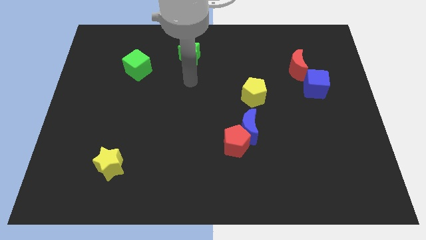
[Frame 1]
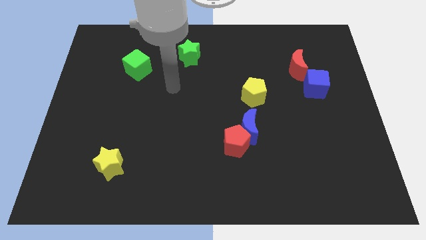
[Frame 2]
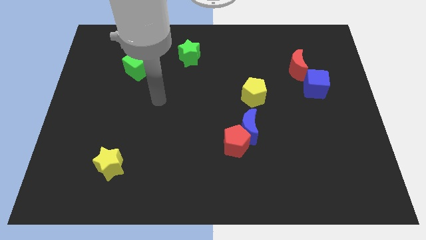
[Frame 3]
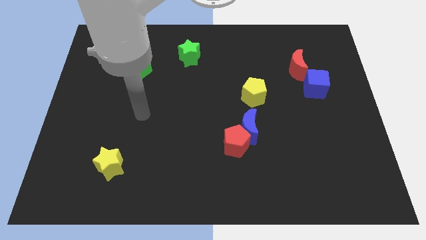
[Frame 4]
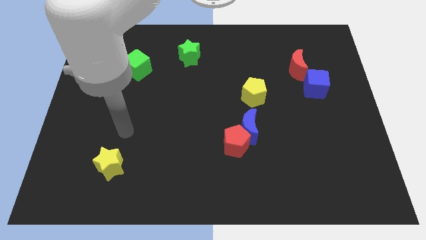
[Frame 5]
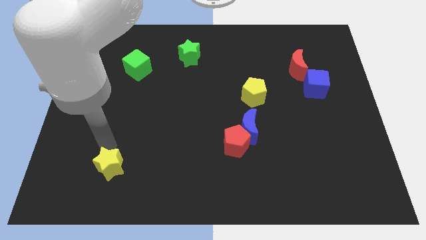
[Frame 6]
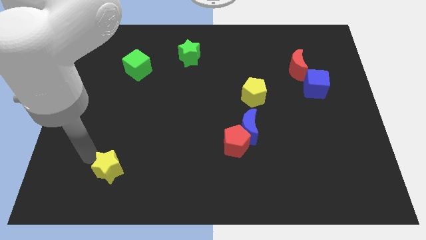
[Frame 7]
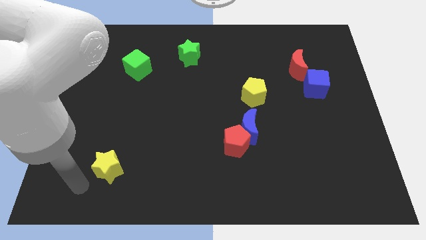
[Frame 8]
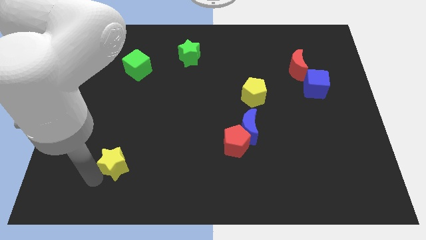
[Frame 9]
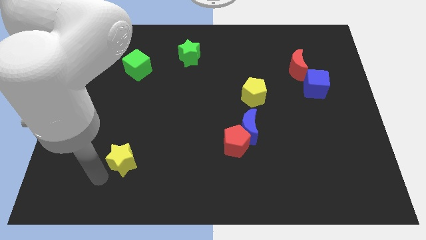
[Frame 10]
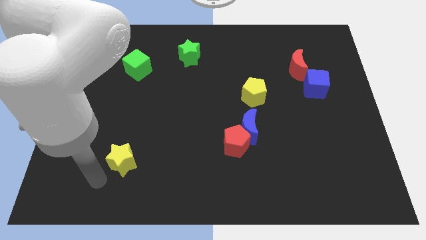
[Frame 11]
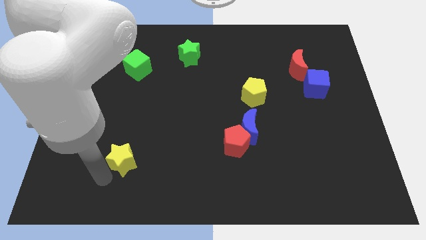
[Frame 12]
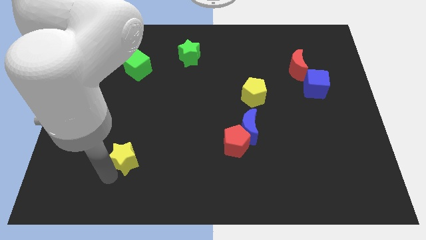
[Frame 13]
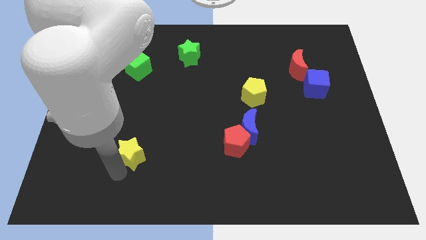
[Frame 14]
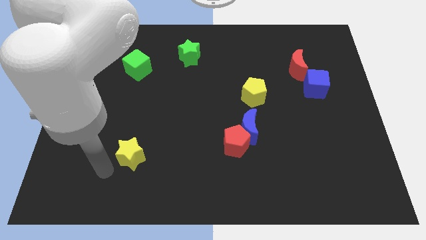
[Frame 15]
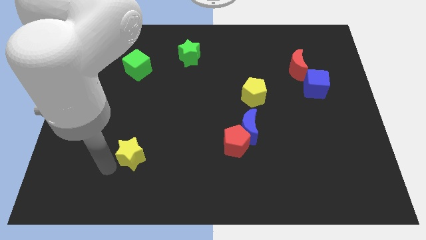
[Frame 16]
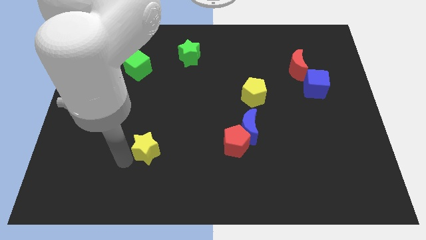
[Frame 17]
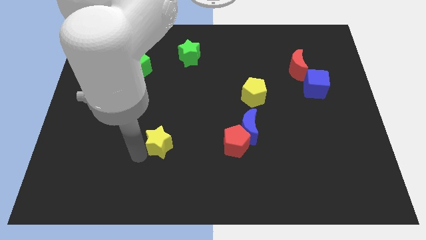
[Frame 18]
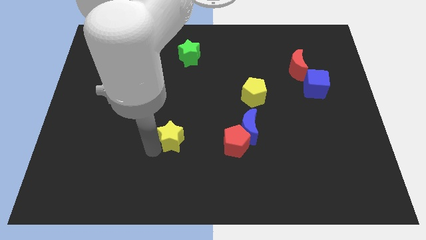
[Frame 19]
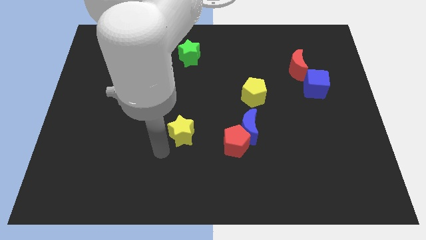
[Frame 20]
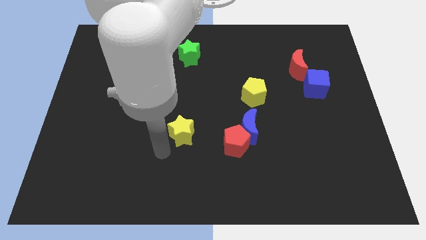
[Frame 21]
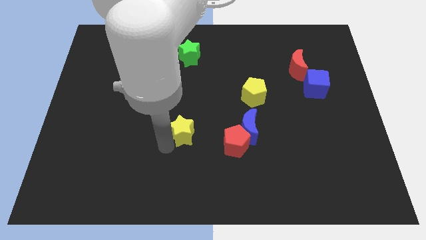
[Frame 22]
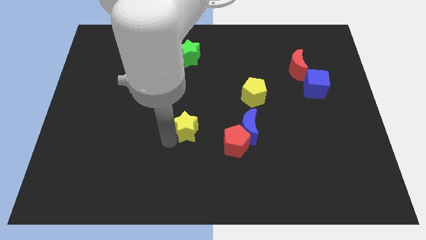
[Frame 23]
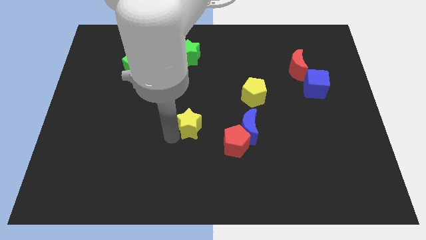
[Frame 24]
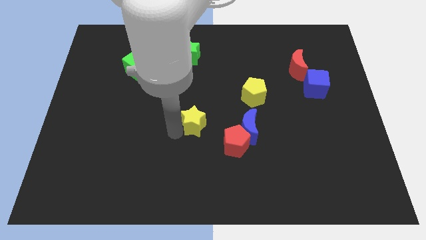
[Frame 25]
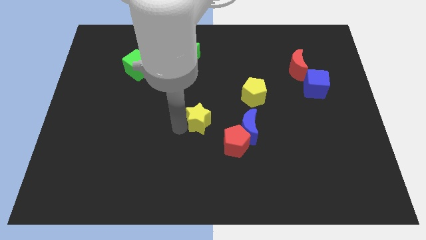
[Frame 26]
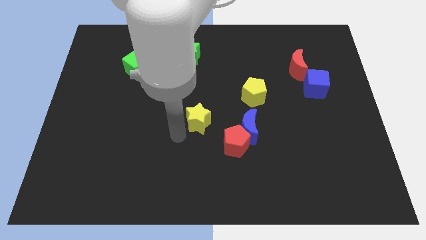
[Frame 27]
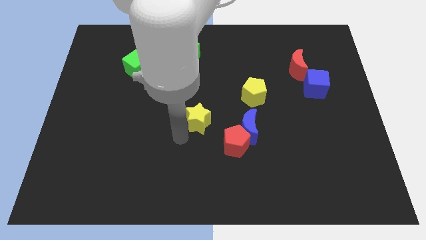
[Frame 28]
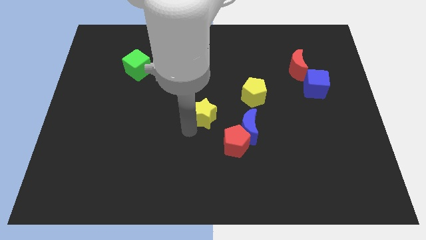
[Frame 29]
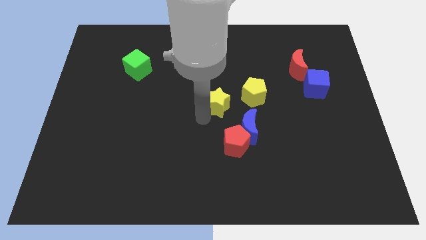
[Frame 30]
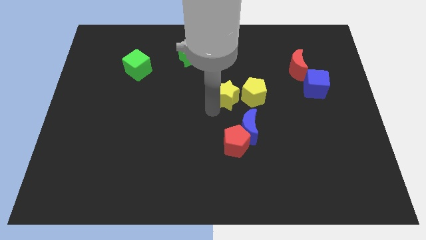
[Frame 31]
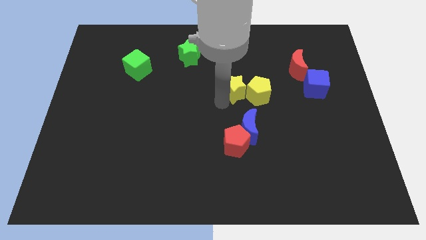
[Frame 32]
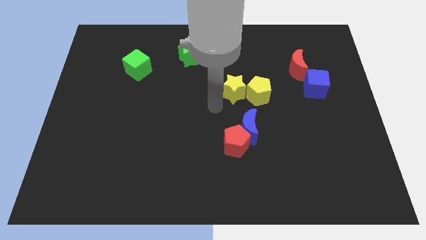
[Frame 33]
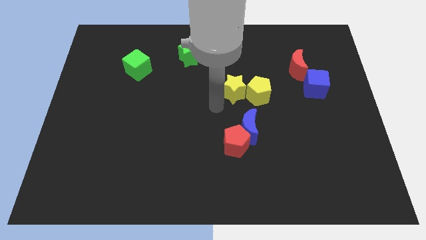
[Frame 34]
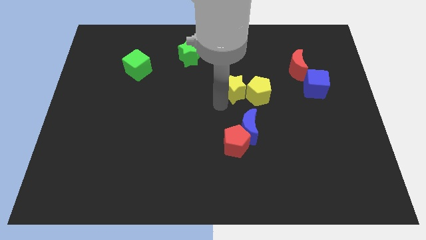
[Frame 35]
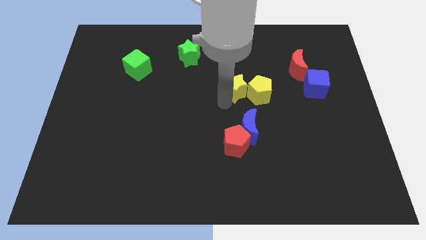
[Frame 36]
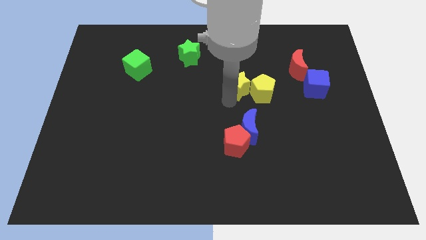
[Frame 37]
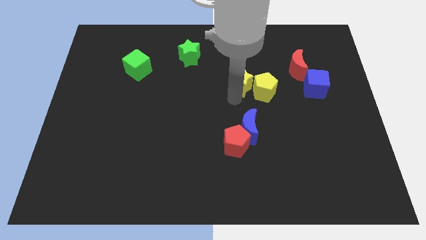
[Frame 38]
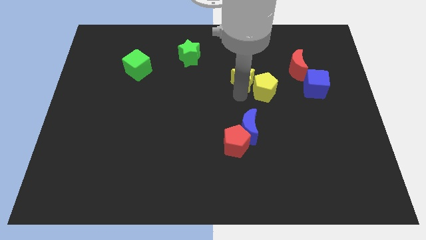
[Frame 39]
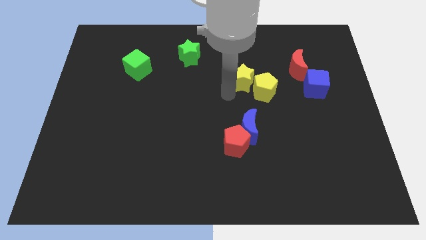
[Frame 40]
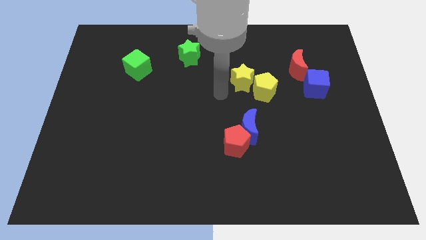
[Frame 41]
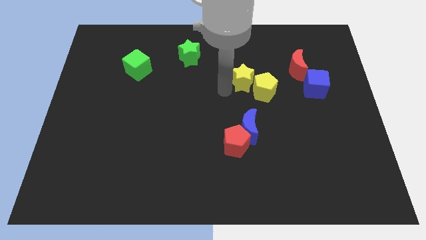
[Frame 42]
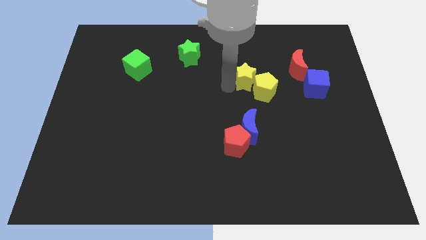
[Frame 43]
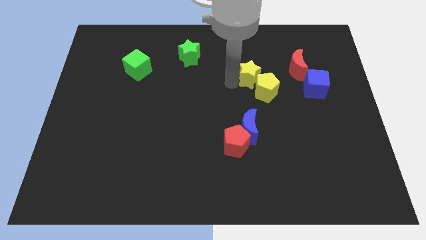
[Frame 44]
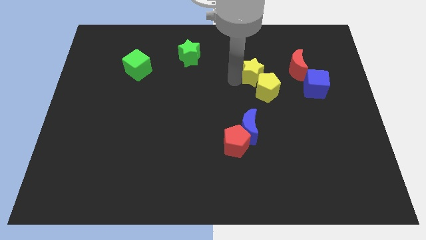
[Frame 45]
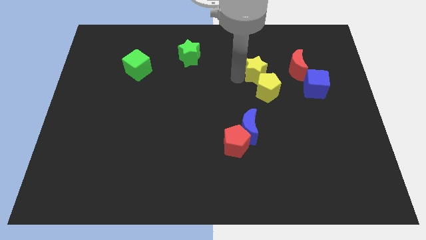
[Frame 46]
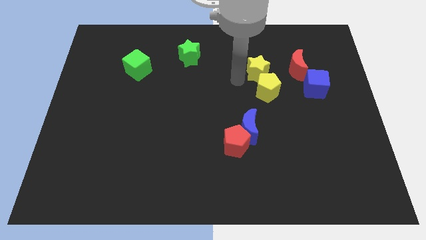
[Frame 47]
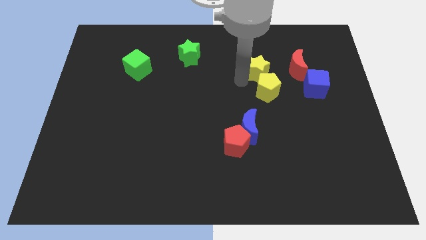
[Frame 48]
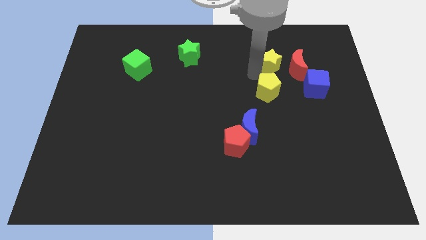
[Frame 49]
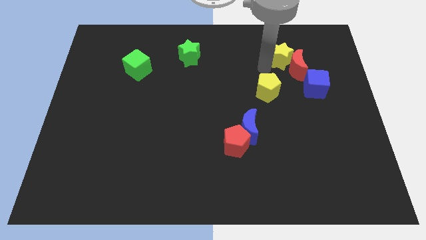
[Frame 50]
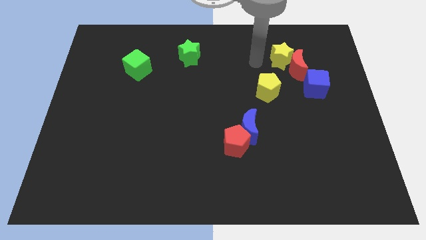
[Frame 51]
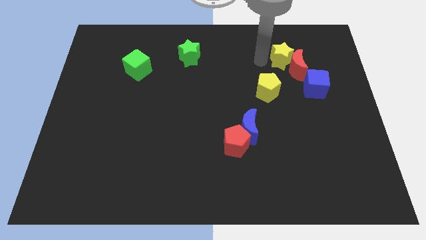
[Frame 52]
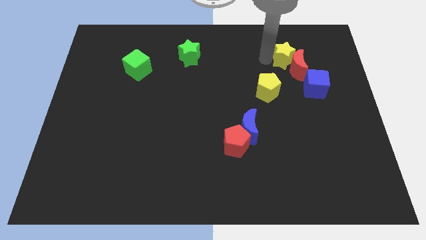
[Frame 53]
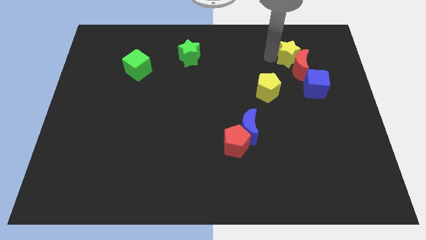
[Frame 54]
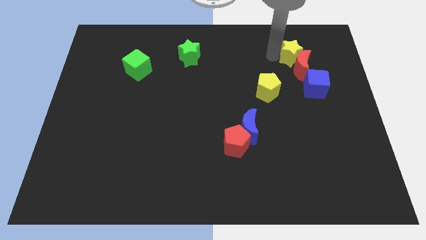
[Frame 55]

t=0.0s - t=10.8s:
move the yellow star to the top side of the blue cube

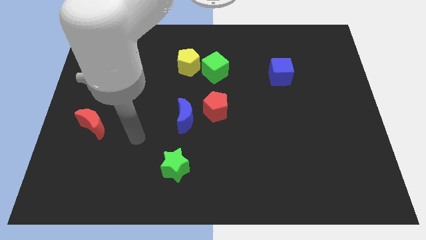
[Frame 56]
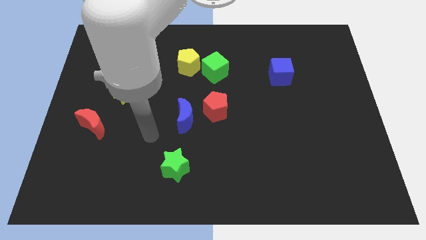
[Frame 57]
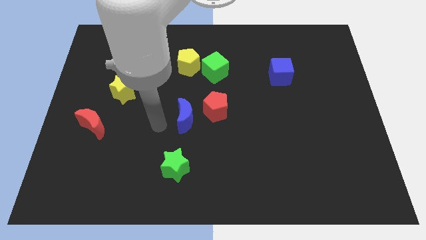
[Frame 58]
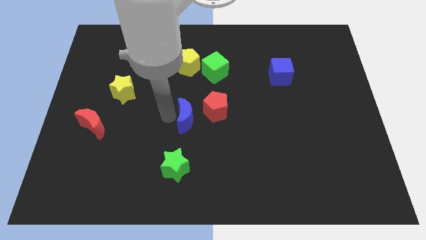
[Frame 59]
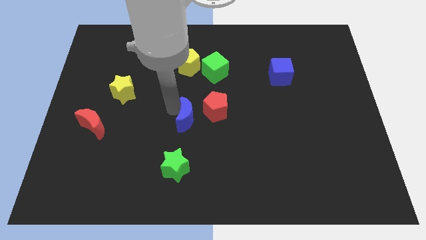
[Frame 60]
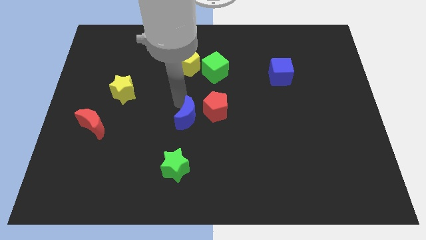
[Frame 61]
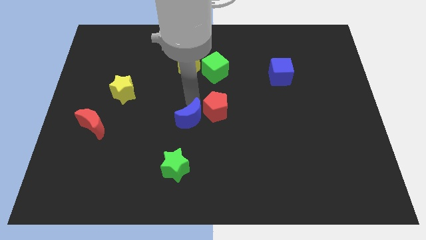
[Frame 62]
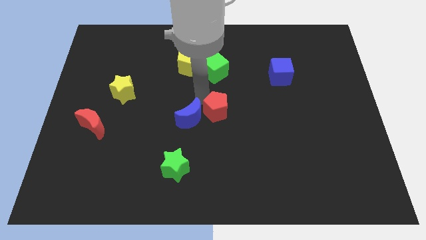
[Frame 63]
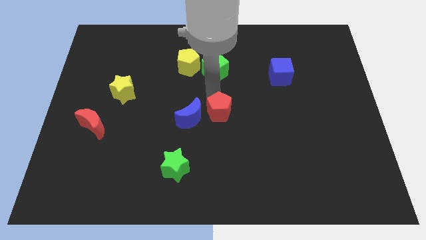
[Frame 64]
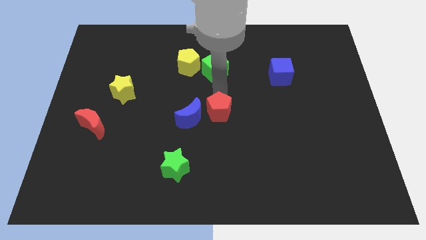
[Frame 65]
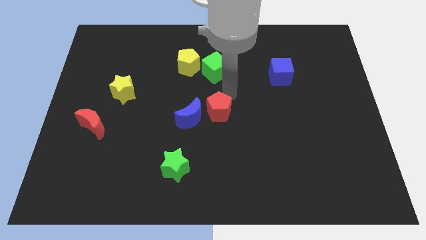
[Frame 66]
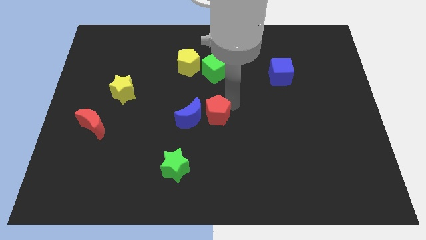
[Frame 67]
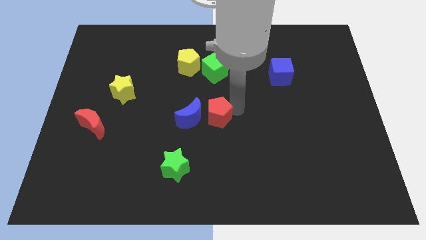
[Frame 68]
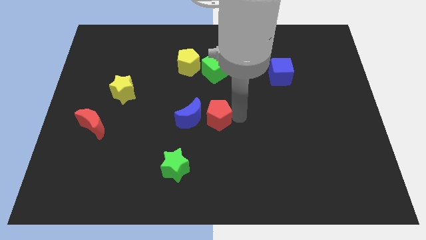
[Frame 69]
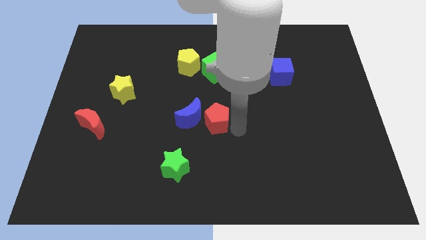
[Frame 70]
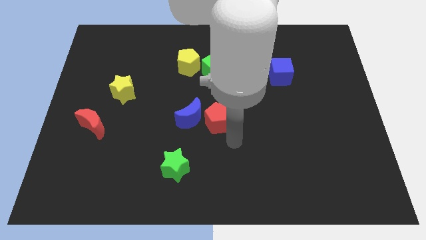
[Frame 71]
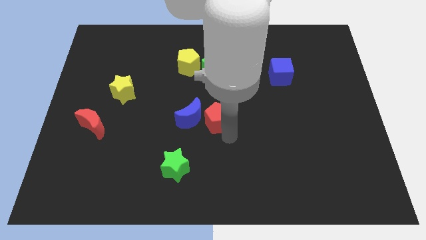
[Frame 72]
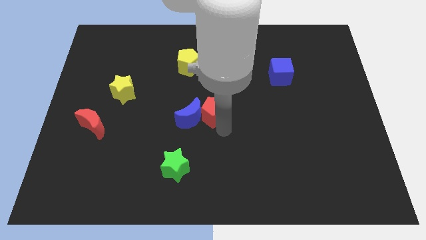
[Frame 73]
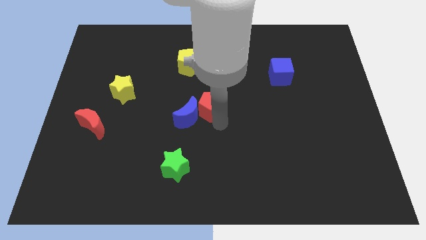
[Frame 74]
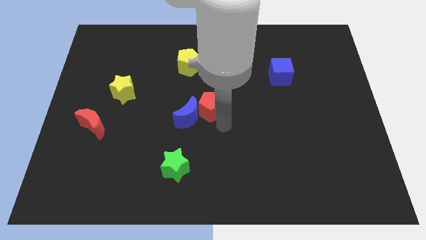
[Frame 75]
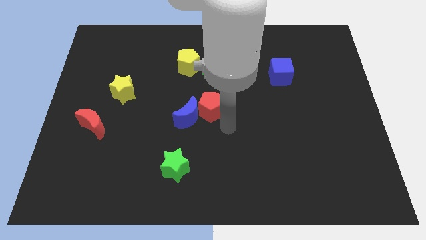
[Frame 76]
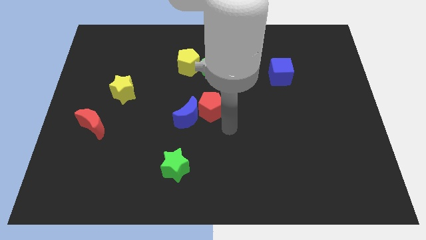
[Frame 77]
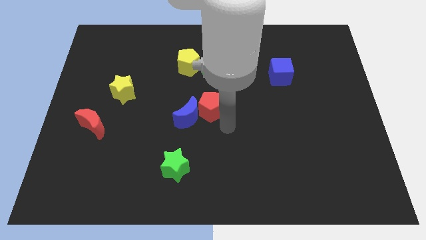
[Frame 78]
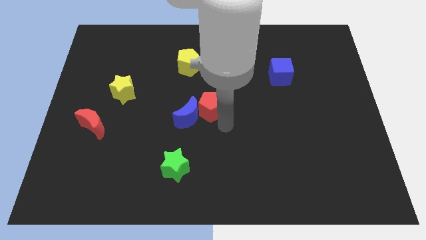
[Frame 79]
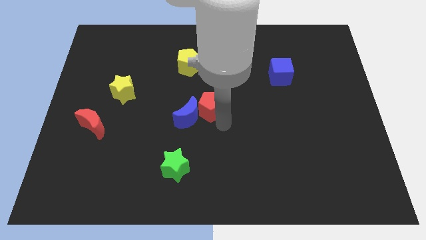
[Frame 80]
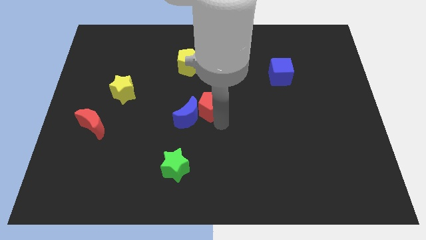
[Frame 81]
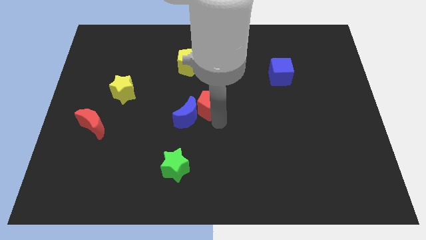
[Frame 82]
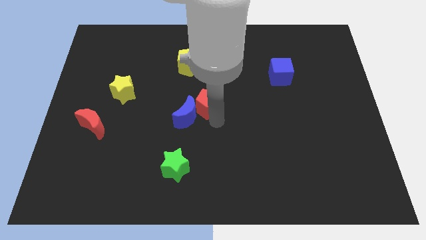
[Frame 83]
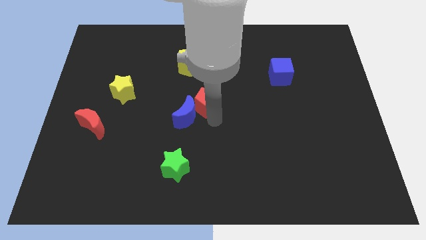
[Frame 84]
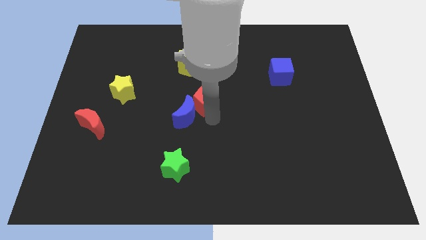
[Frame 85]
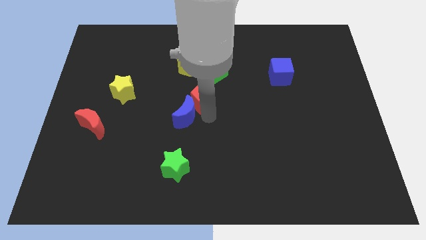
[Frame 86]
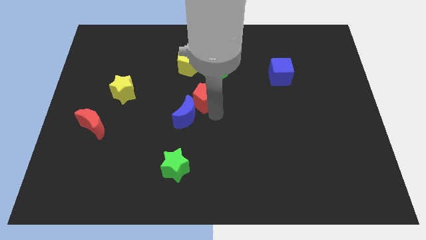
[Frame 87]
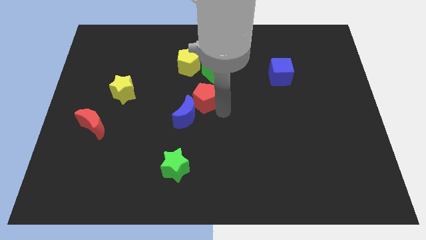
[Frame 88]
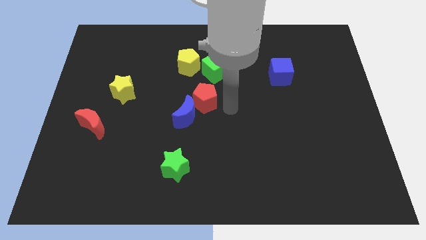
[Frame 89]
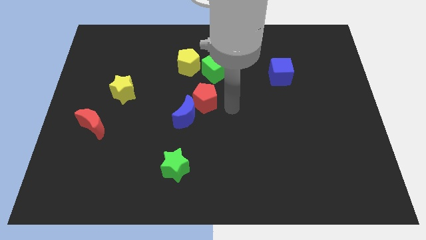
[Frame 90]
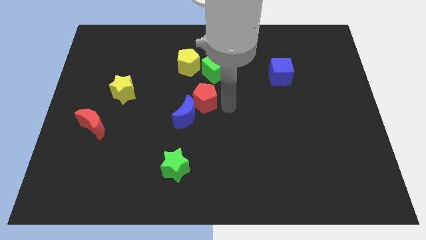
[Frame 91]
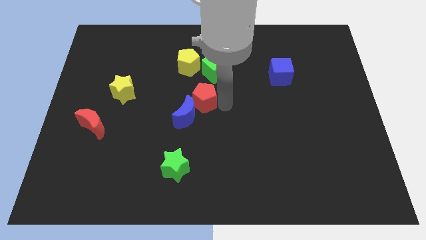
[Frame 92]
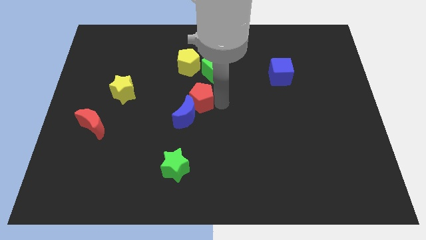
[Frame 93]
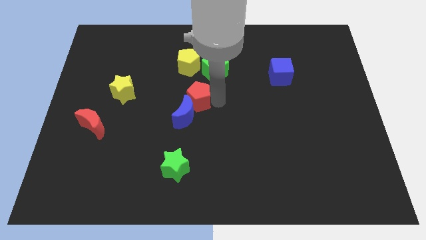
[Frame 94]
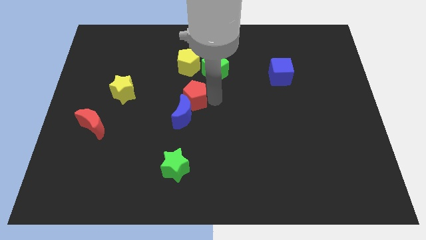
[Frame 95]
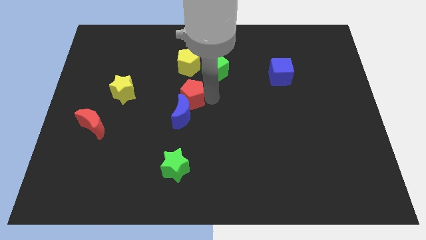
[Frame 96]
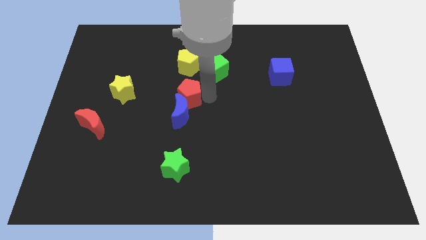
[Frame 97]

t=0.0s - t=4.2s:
move the red pentagon just right of the yellow star
